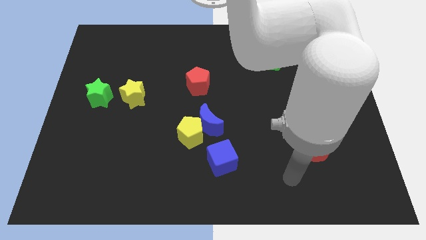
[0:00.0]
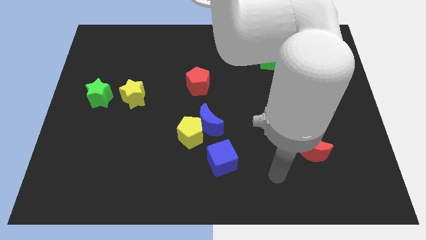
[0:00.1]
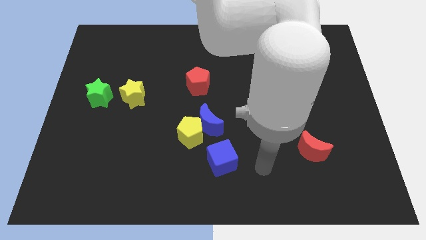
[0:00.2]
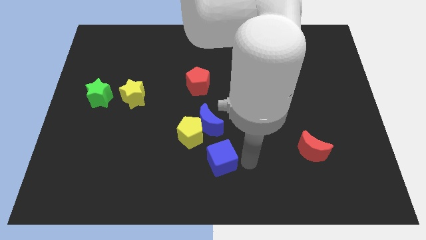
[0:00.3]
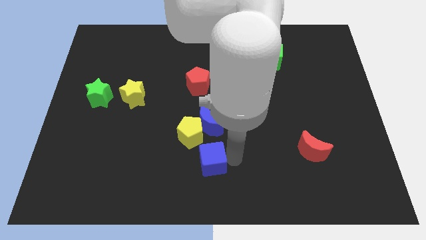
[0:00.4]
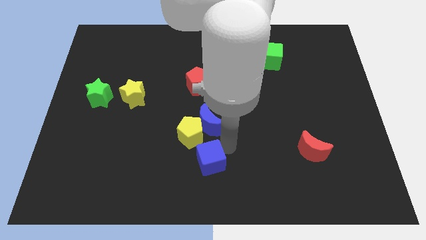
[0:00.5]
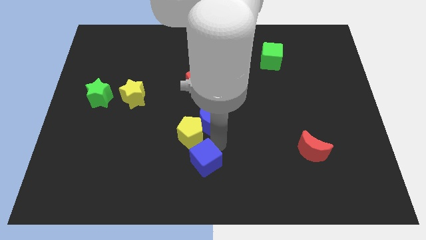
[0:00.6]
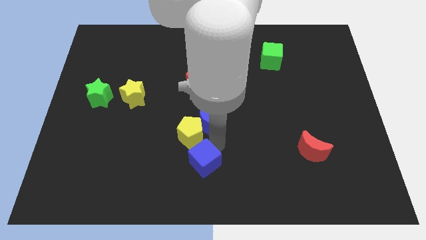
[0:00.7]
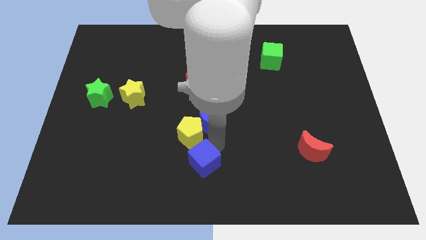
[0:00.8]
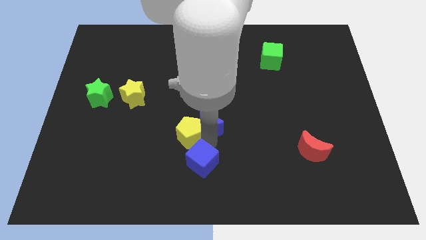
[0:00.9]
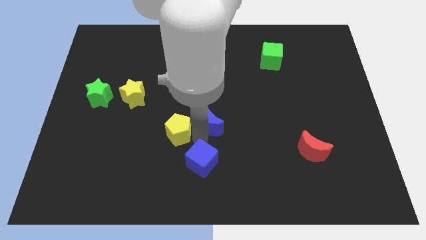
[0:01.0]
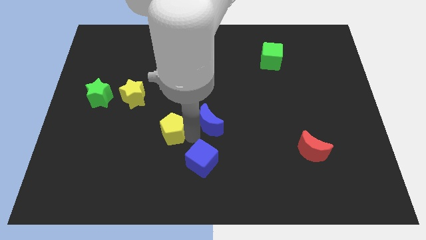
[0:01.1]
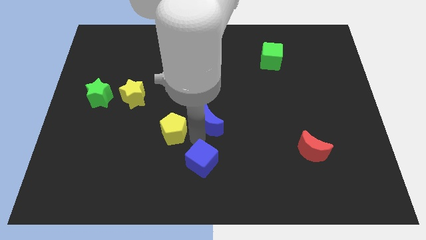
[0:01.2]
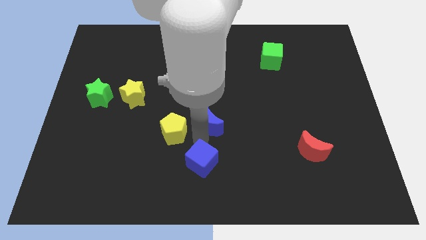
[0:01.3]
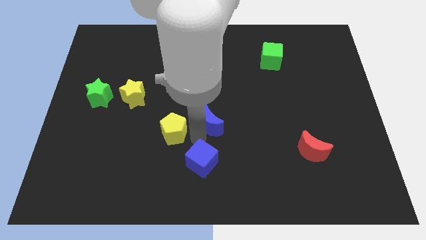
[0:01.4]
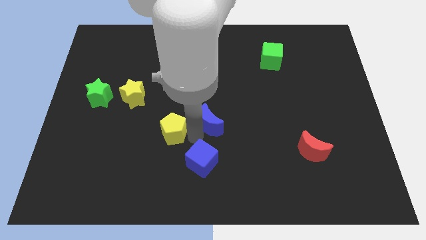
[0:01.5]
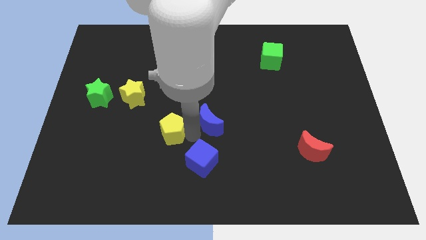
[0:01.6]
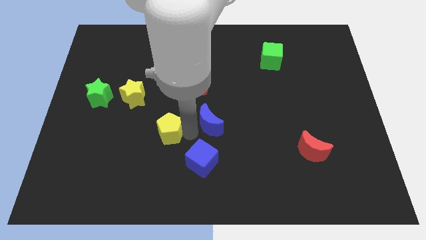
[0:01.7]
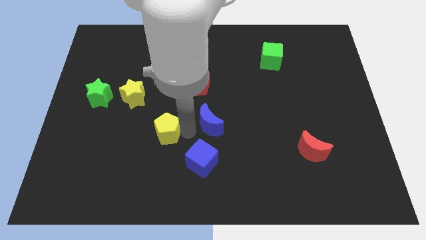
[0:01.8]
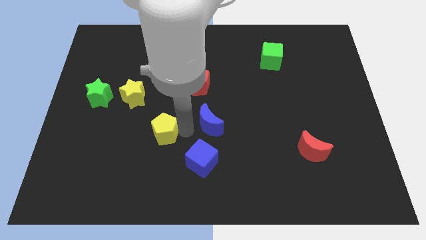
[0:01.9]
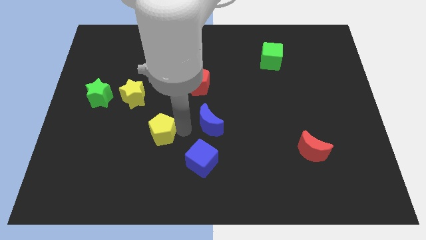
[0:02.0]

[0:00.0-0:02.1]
move the yellow pentagon away from the blue moon and blue cube

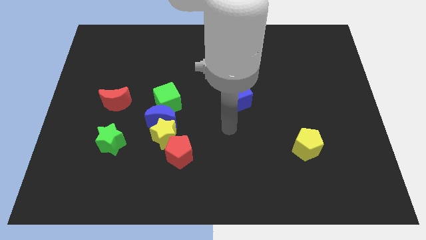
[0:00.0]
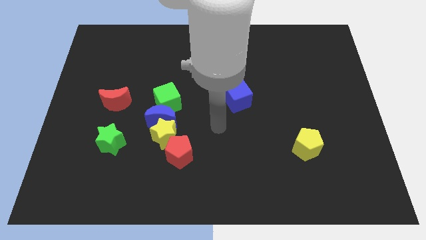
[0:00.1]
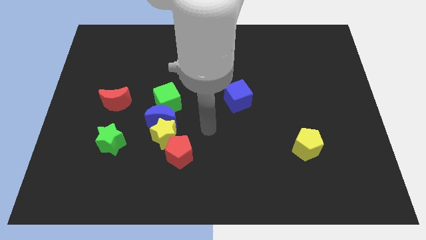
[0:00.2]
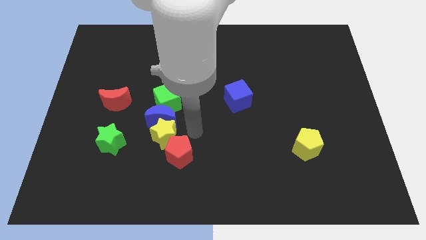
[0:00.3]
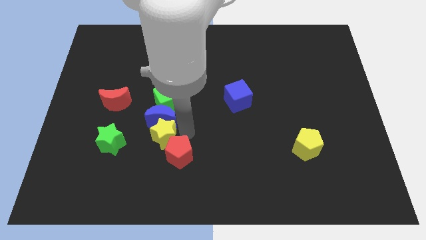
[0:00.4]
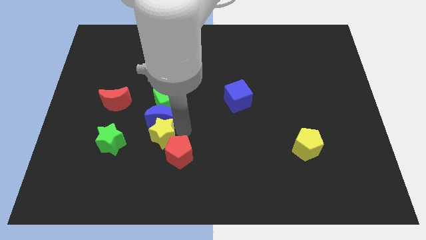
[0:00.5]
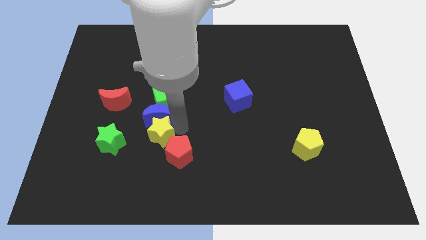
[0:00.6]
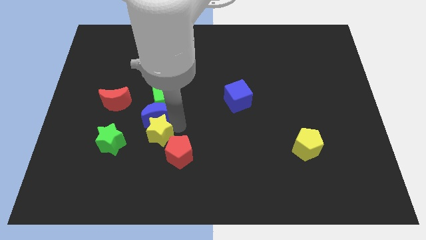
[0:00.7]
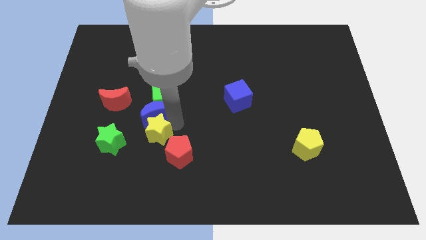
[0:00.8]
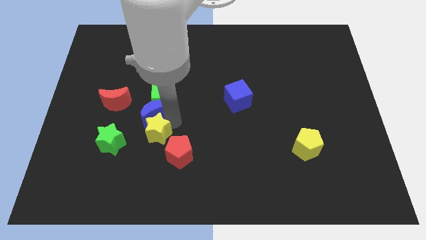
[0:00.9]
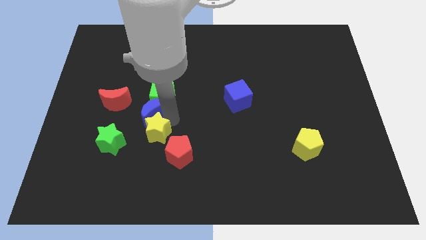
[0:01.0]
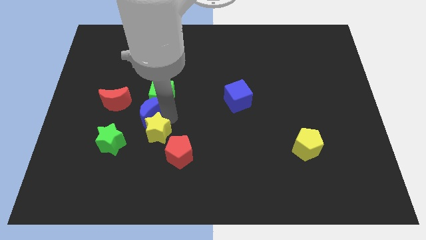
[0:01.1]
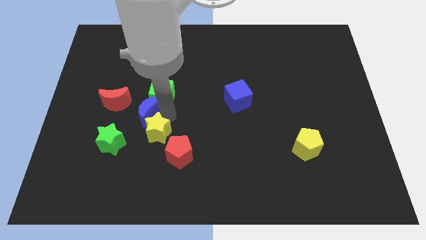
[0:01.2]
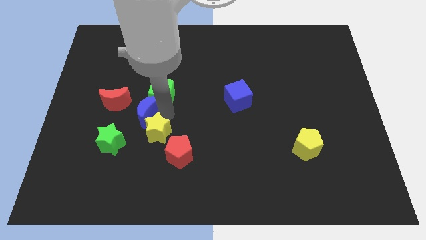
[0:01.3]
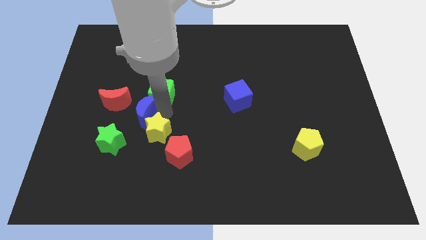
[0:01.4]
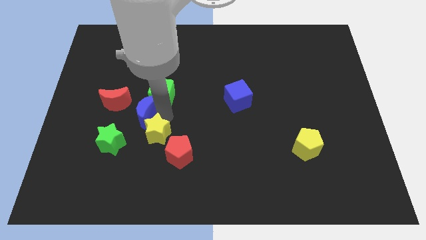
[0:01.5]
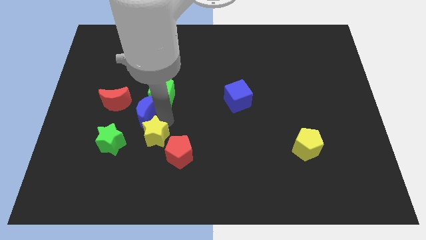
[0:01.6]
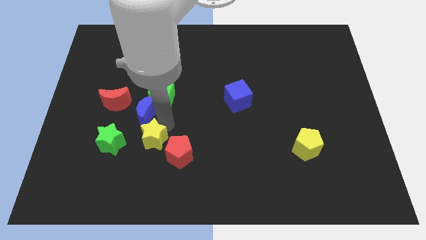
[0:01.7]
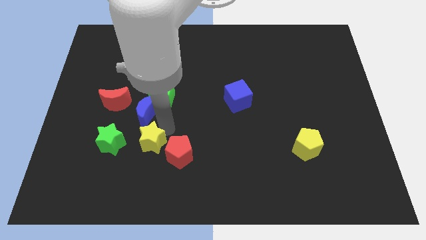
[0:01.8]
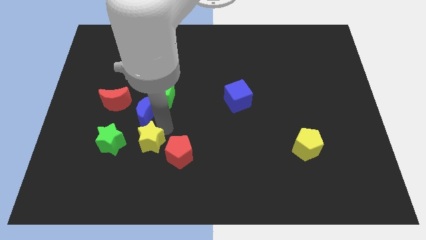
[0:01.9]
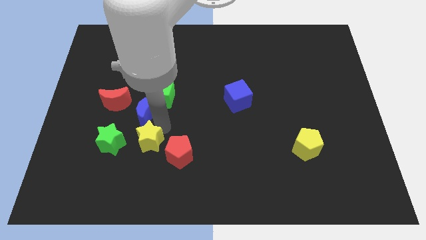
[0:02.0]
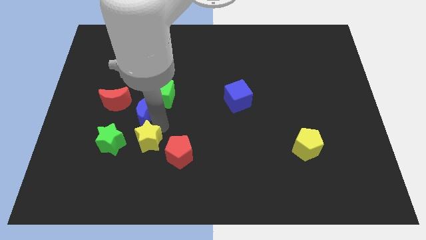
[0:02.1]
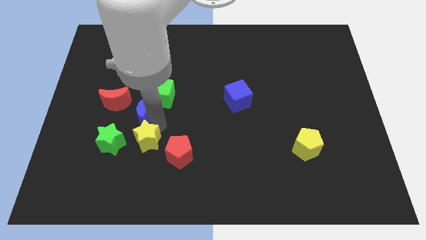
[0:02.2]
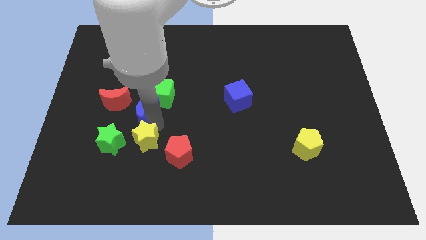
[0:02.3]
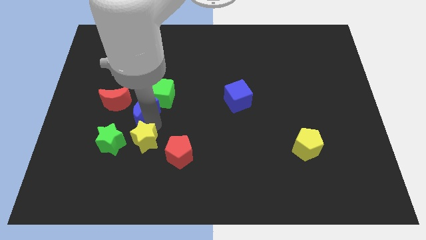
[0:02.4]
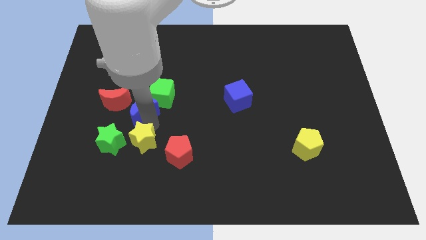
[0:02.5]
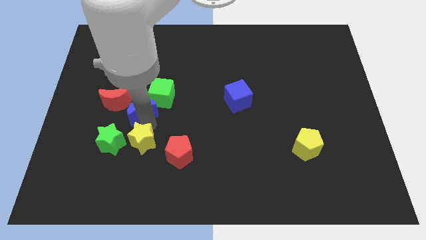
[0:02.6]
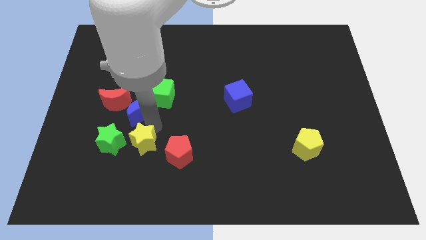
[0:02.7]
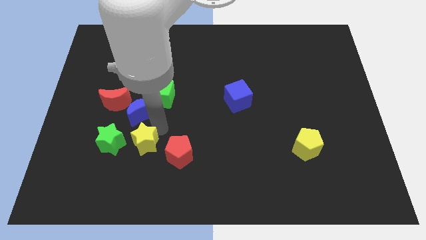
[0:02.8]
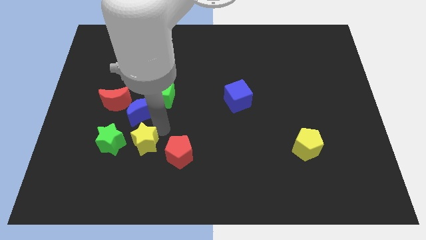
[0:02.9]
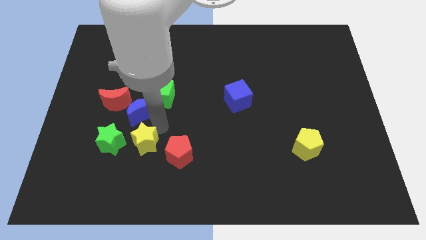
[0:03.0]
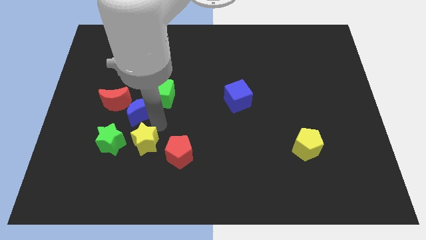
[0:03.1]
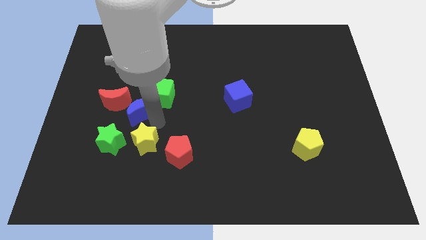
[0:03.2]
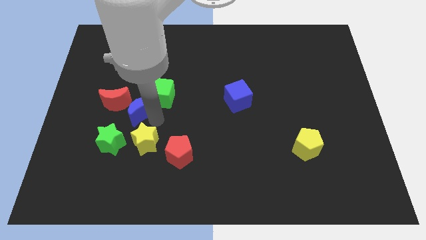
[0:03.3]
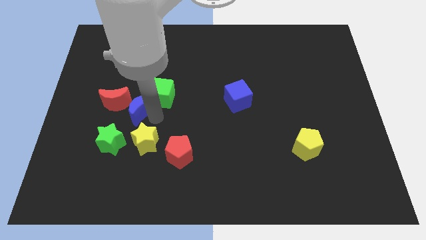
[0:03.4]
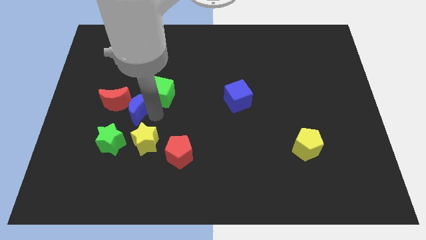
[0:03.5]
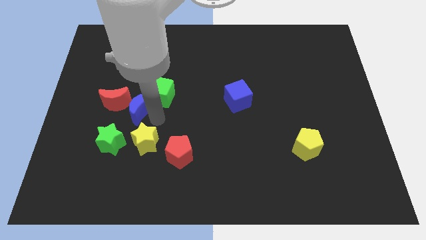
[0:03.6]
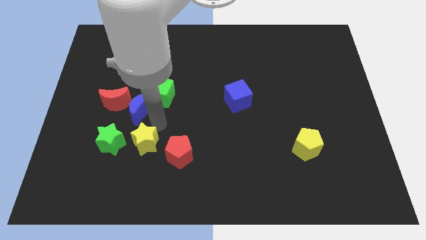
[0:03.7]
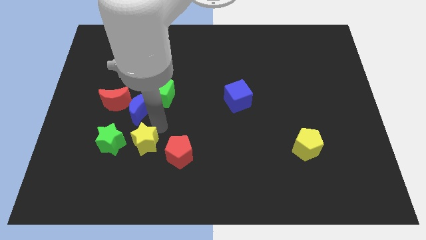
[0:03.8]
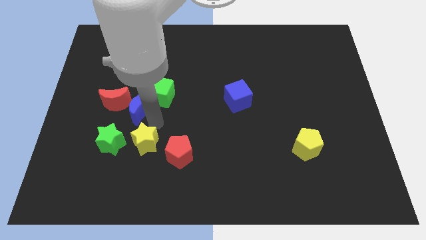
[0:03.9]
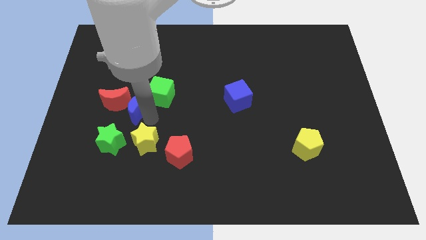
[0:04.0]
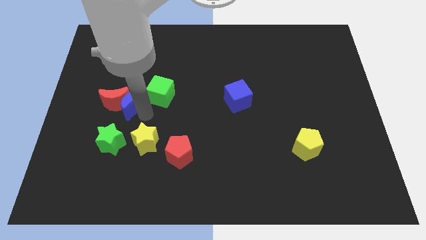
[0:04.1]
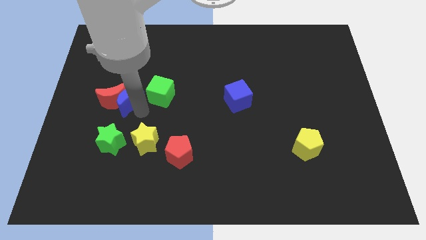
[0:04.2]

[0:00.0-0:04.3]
pull the blue moon apart from the yellow star, green cube, and red pentagon

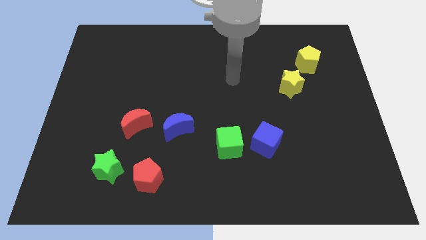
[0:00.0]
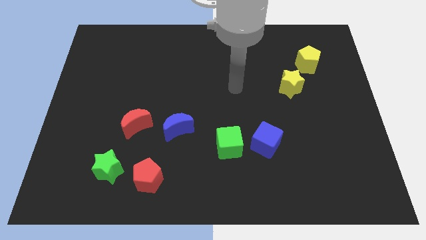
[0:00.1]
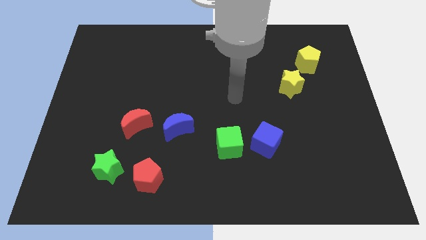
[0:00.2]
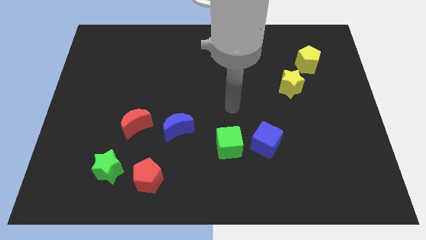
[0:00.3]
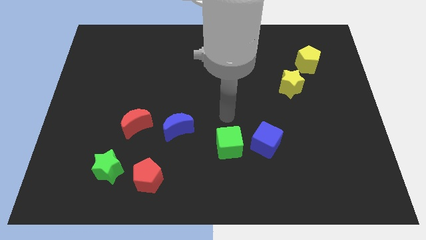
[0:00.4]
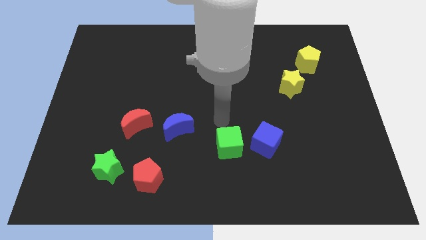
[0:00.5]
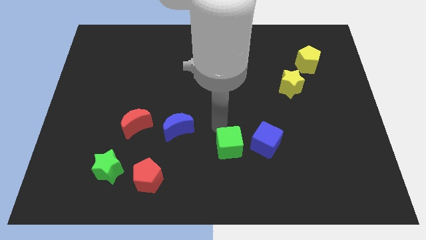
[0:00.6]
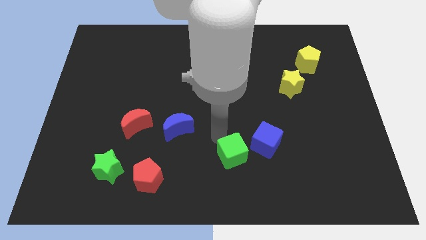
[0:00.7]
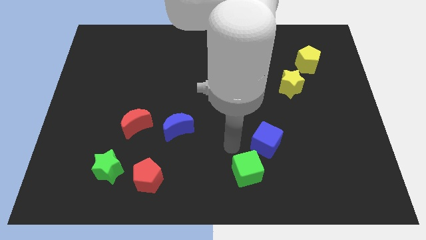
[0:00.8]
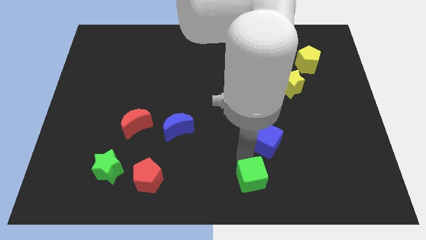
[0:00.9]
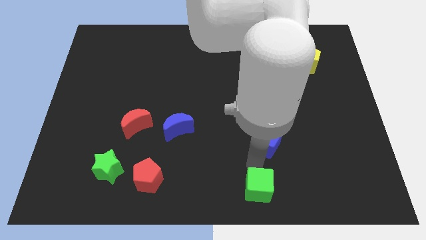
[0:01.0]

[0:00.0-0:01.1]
move the blue cube away from the green cube

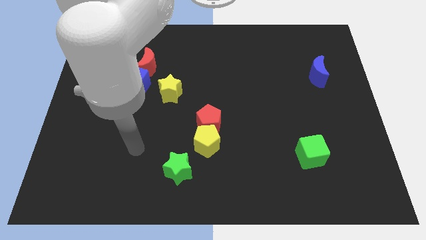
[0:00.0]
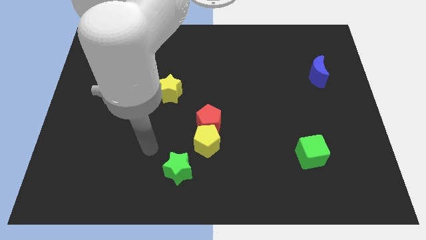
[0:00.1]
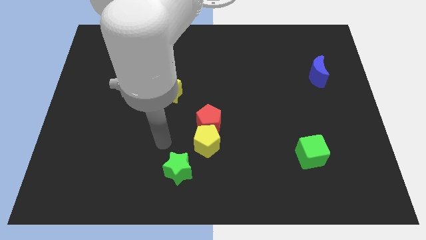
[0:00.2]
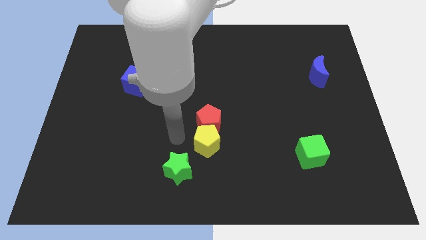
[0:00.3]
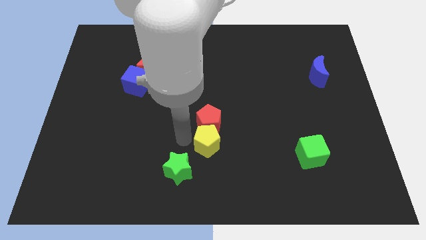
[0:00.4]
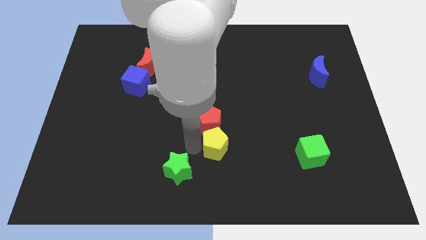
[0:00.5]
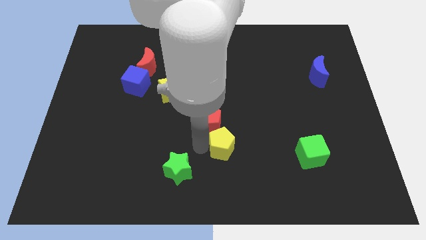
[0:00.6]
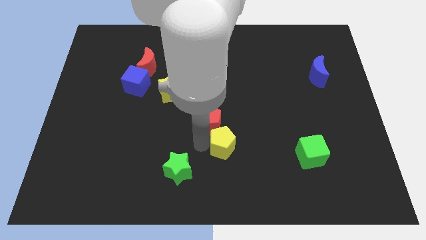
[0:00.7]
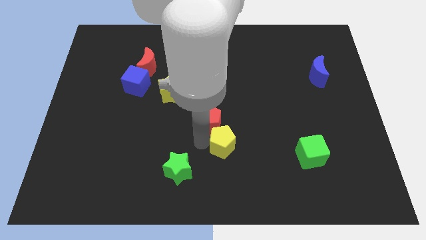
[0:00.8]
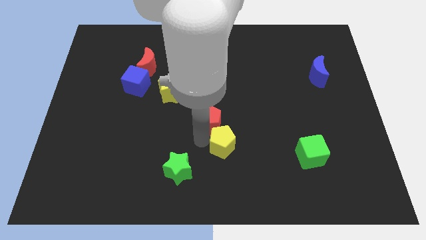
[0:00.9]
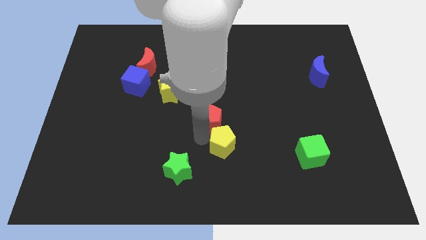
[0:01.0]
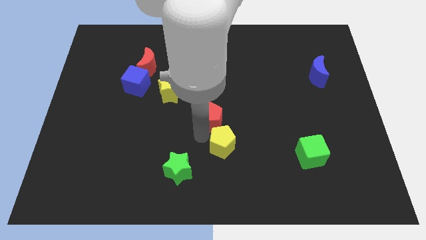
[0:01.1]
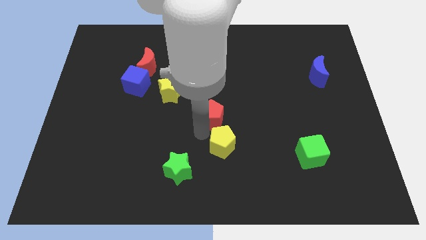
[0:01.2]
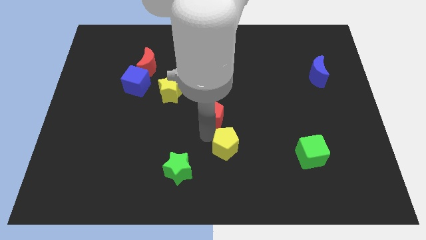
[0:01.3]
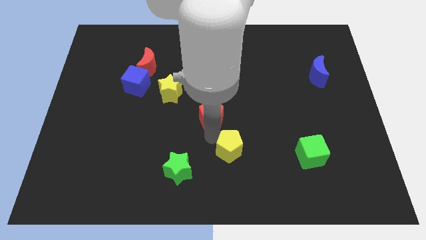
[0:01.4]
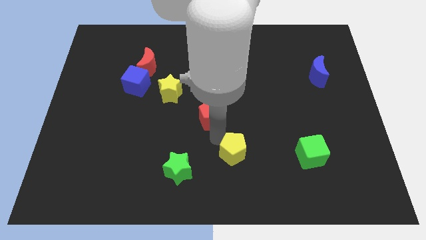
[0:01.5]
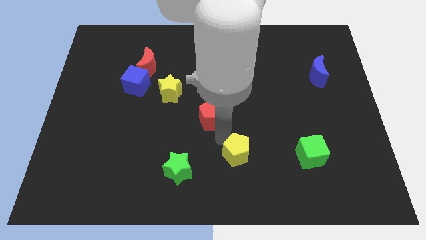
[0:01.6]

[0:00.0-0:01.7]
move the red pentagon away from the yellow pentagon
